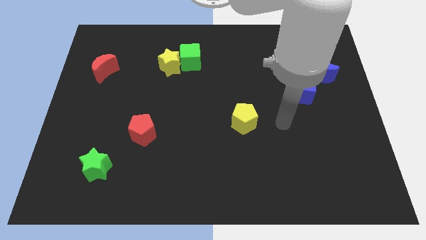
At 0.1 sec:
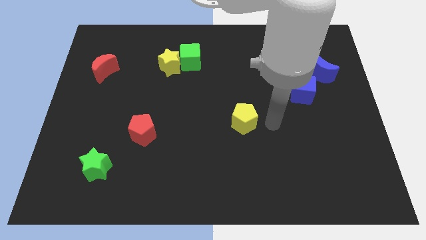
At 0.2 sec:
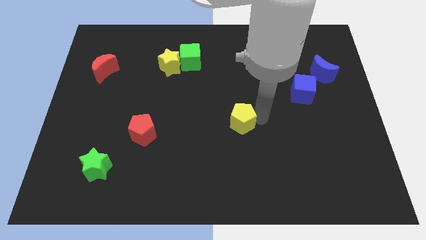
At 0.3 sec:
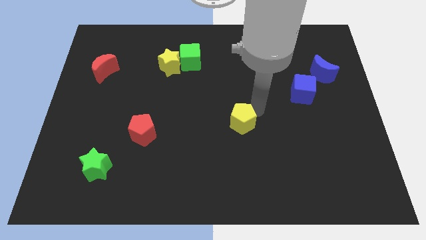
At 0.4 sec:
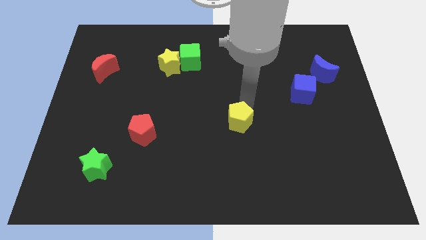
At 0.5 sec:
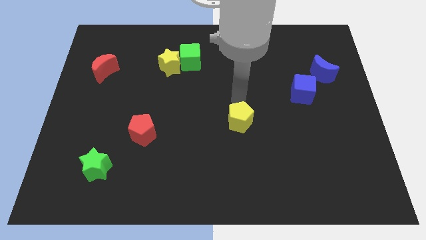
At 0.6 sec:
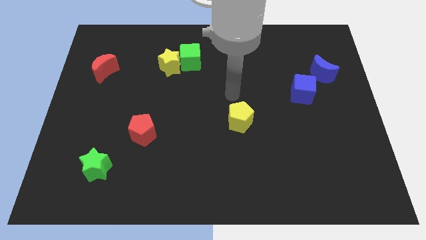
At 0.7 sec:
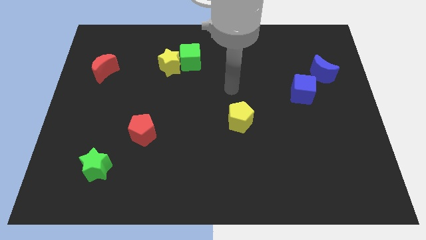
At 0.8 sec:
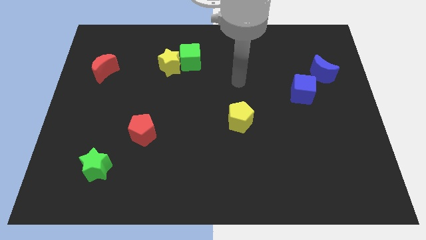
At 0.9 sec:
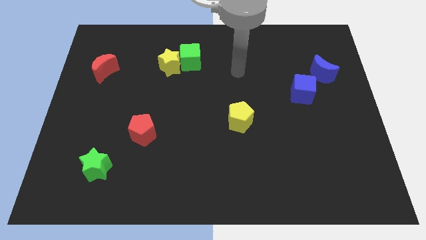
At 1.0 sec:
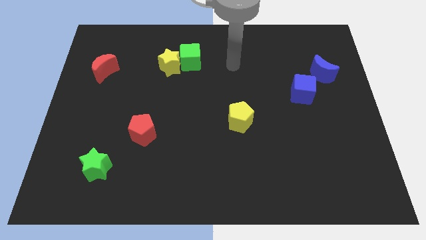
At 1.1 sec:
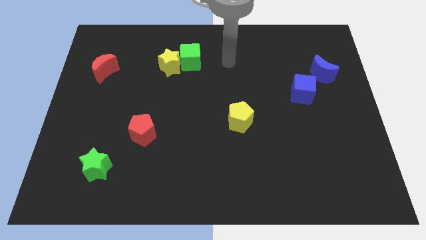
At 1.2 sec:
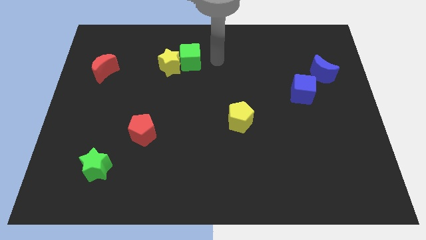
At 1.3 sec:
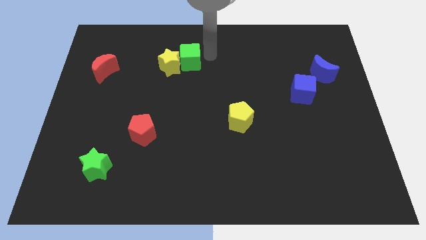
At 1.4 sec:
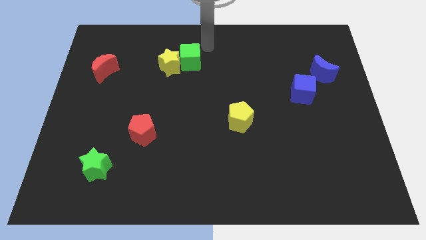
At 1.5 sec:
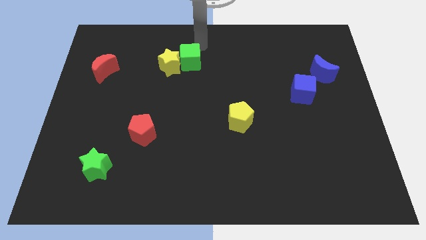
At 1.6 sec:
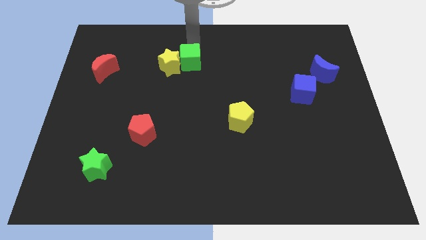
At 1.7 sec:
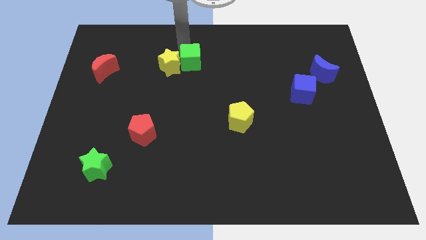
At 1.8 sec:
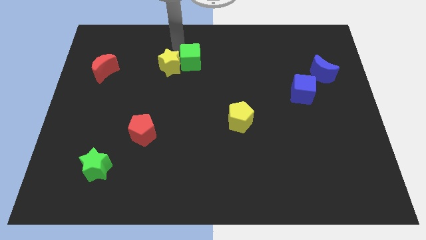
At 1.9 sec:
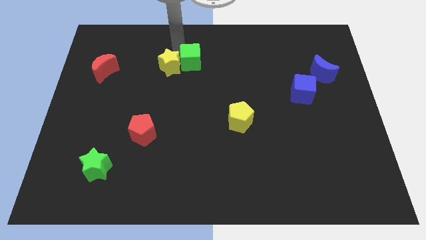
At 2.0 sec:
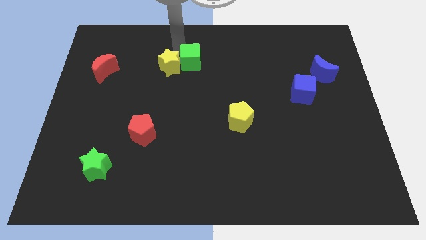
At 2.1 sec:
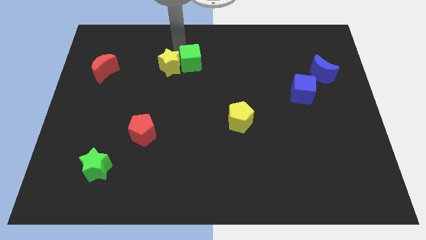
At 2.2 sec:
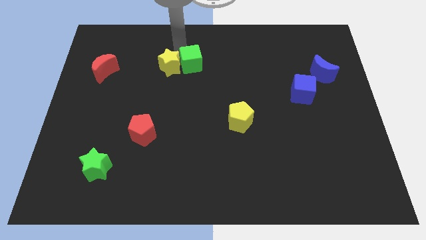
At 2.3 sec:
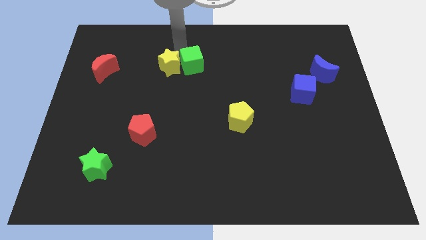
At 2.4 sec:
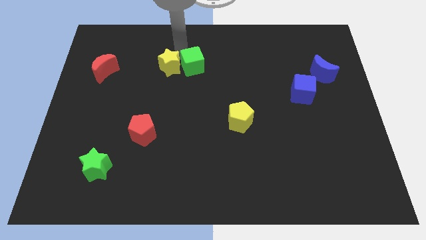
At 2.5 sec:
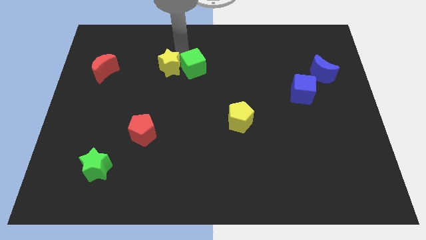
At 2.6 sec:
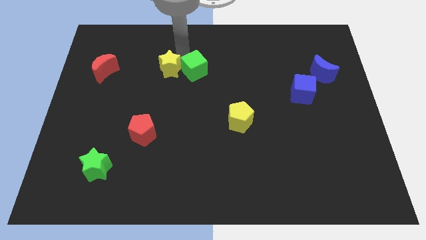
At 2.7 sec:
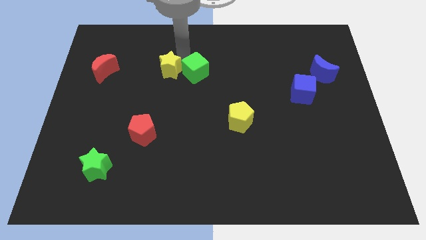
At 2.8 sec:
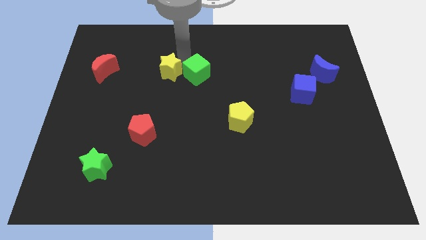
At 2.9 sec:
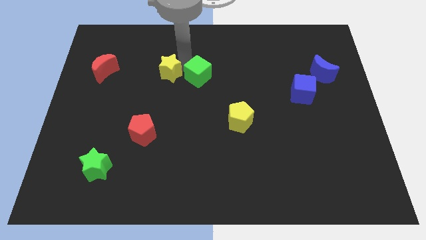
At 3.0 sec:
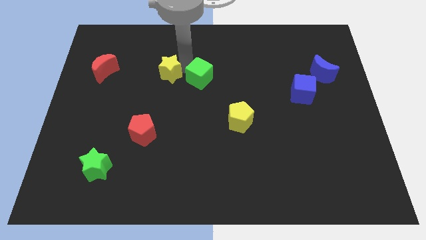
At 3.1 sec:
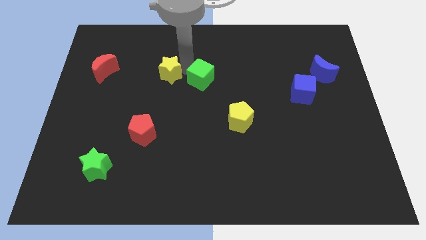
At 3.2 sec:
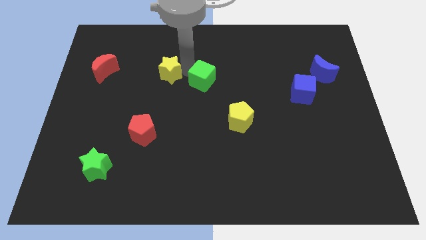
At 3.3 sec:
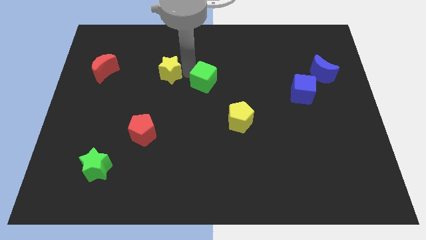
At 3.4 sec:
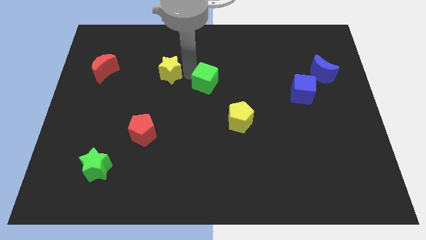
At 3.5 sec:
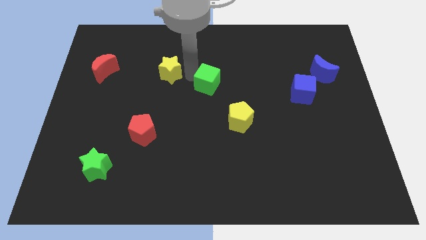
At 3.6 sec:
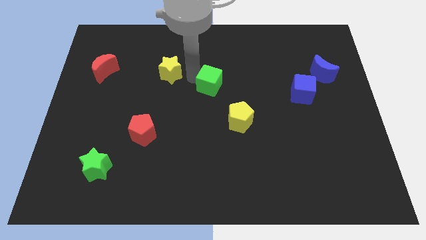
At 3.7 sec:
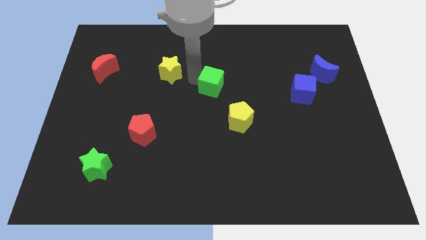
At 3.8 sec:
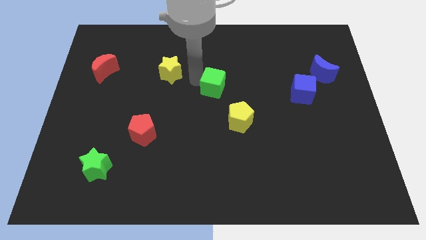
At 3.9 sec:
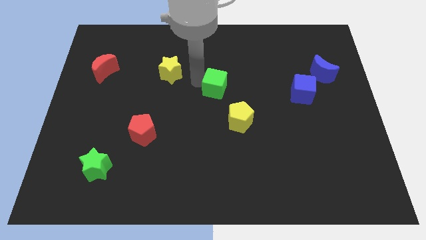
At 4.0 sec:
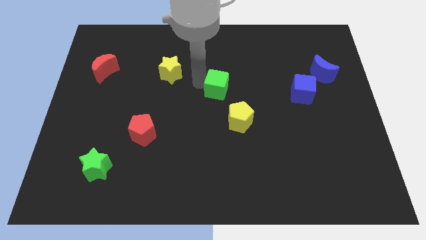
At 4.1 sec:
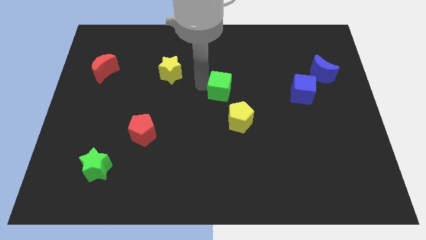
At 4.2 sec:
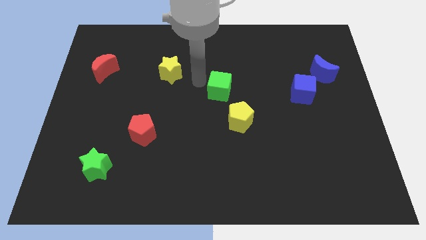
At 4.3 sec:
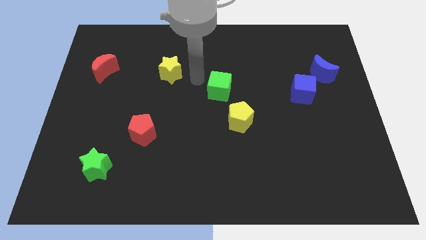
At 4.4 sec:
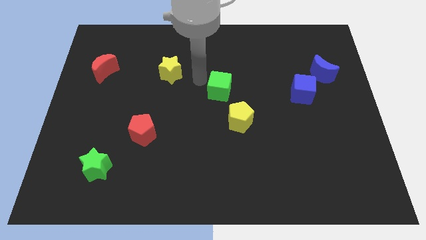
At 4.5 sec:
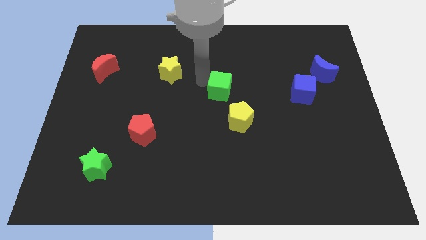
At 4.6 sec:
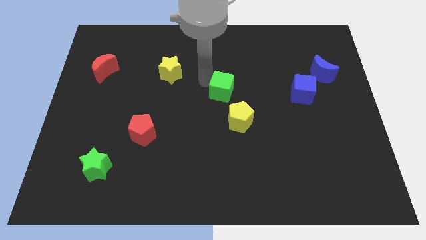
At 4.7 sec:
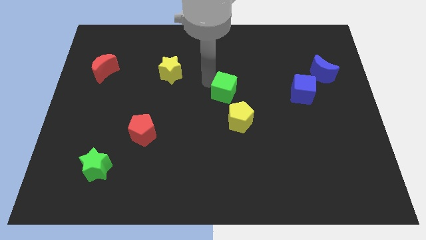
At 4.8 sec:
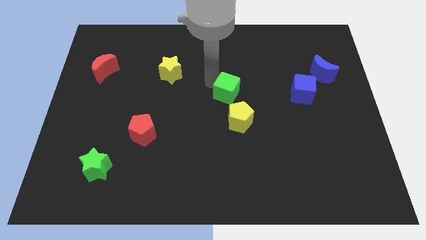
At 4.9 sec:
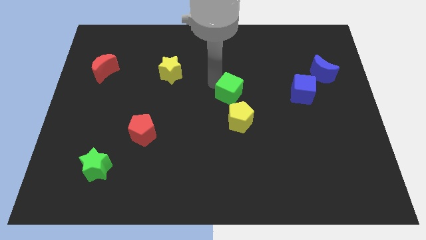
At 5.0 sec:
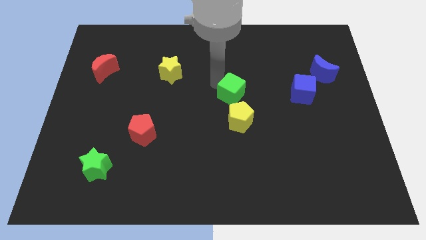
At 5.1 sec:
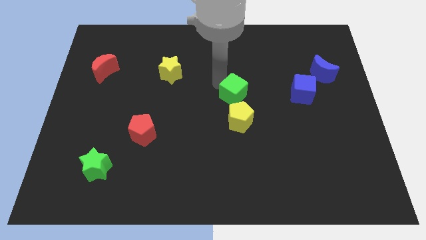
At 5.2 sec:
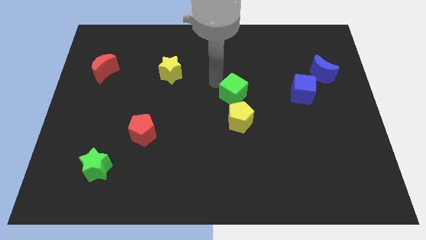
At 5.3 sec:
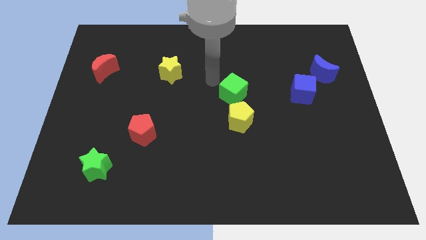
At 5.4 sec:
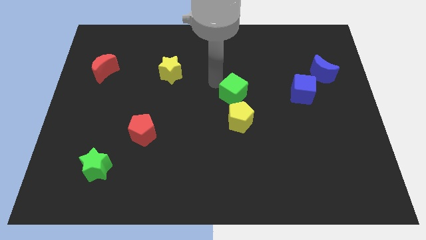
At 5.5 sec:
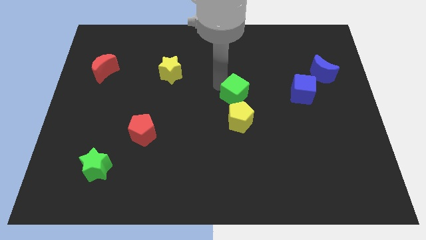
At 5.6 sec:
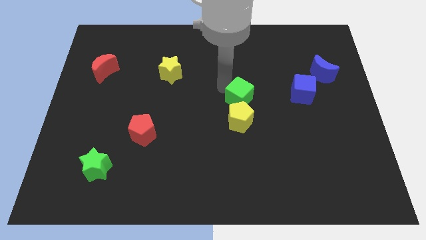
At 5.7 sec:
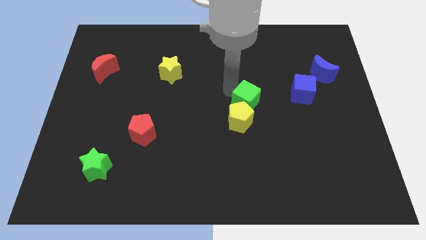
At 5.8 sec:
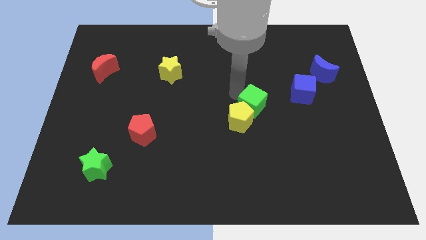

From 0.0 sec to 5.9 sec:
push the green cube downwards and then to the right

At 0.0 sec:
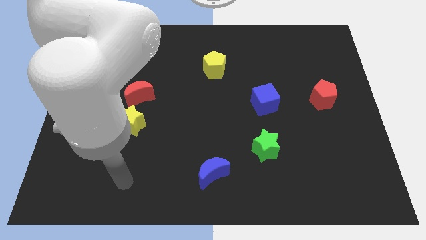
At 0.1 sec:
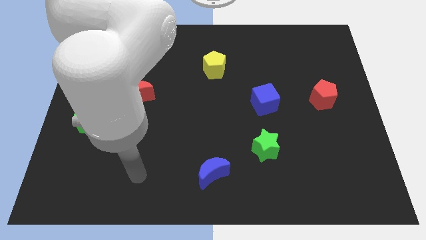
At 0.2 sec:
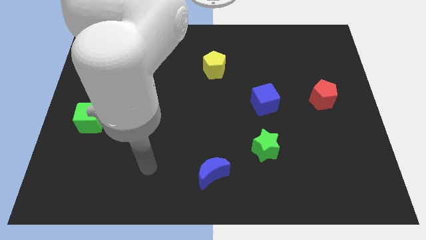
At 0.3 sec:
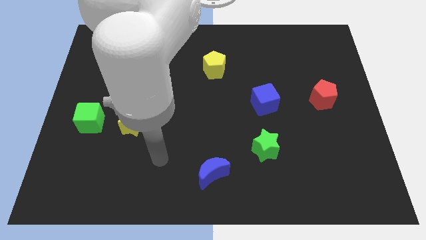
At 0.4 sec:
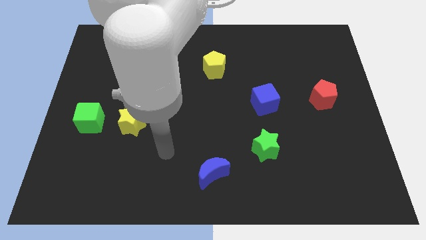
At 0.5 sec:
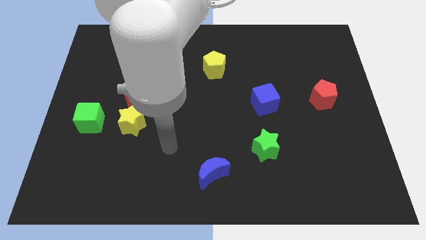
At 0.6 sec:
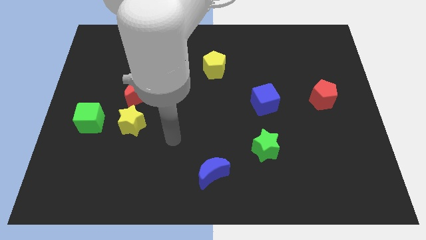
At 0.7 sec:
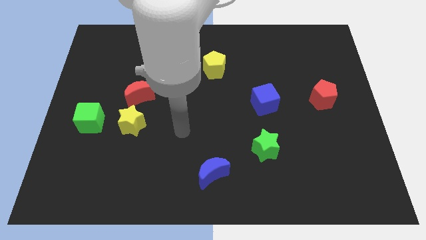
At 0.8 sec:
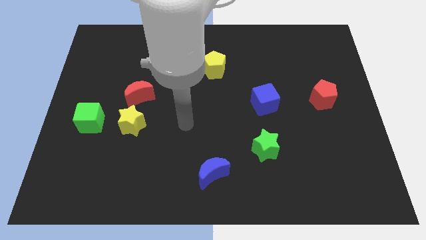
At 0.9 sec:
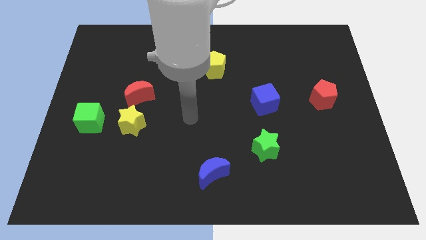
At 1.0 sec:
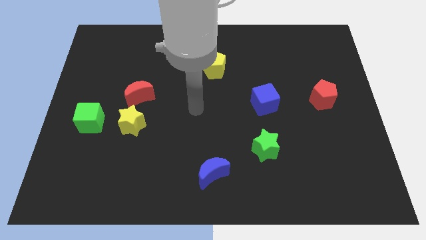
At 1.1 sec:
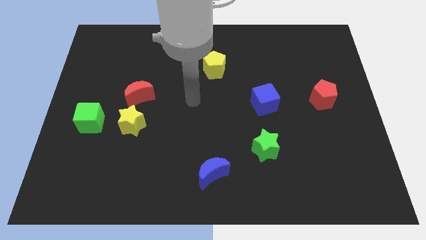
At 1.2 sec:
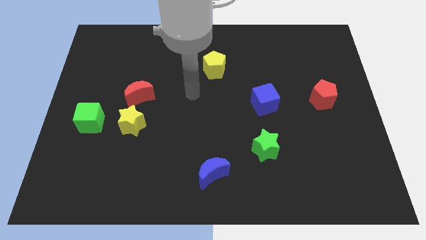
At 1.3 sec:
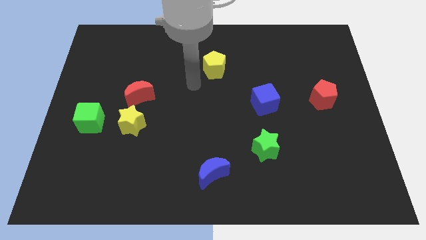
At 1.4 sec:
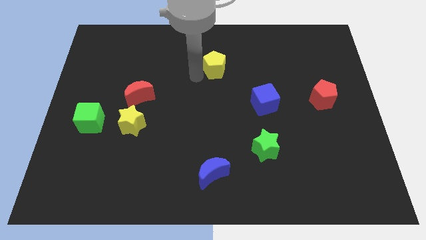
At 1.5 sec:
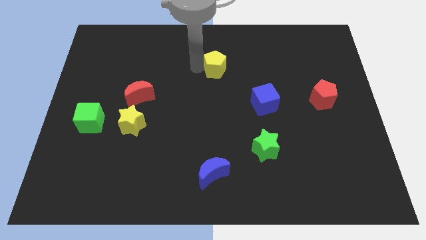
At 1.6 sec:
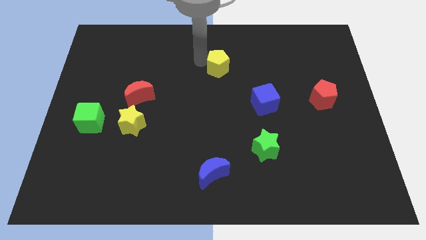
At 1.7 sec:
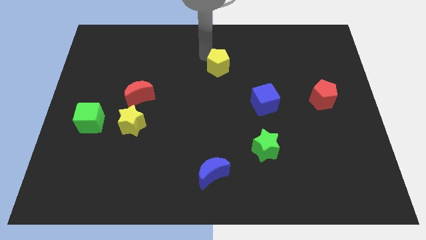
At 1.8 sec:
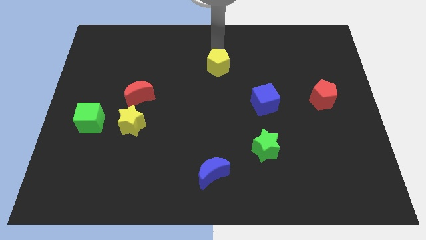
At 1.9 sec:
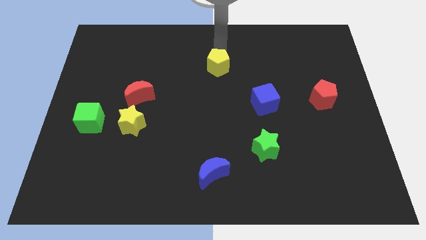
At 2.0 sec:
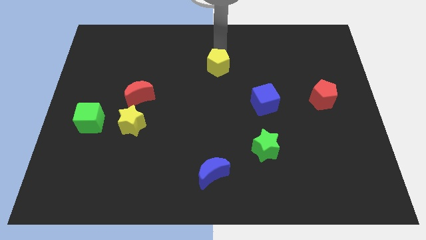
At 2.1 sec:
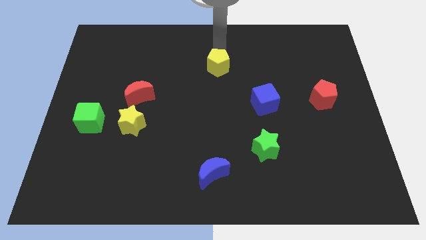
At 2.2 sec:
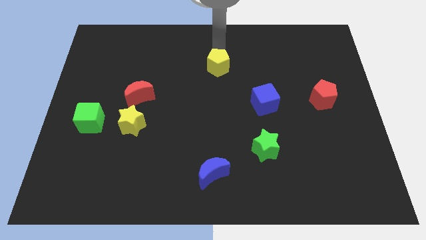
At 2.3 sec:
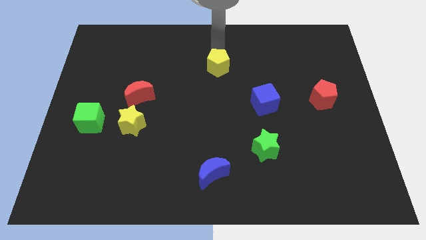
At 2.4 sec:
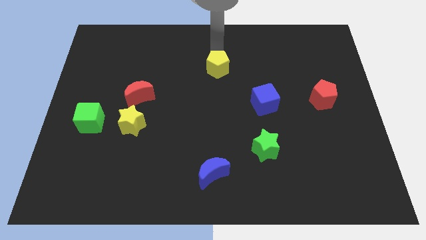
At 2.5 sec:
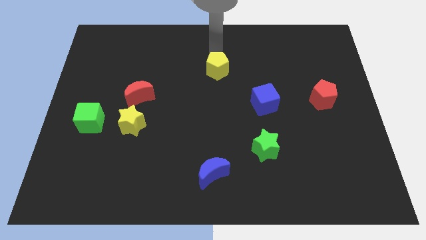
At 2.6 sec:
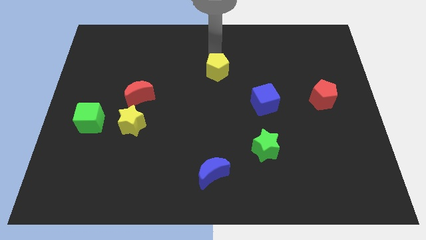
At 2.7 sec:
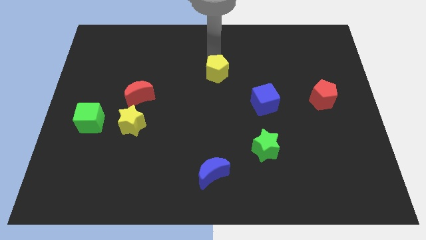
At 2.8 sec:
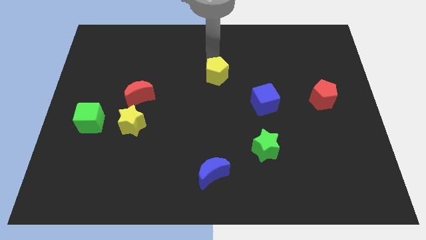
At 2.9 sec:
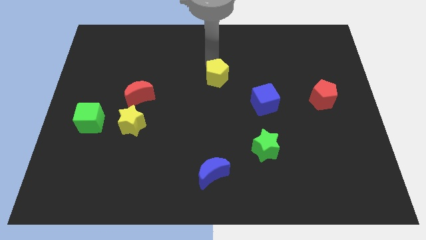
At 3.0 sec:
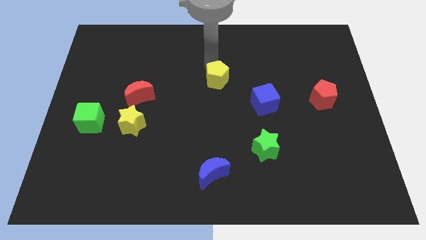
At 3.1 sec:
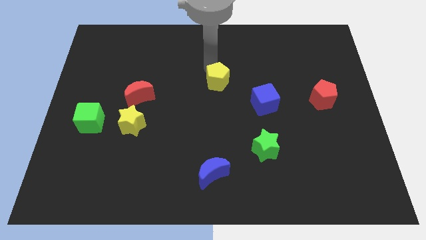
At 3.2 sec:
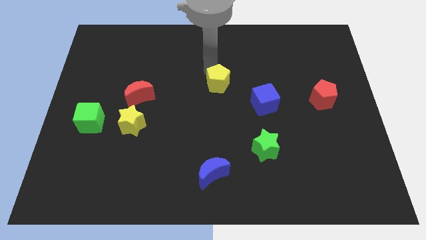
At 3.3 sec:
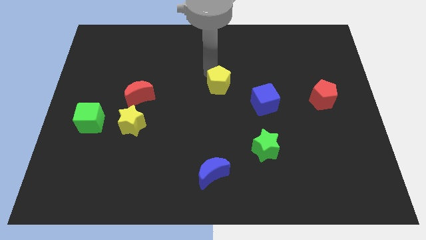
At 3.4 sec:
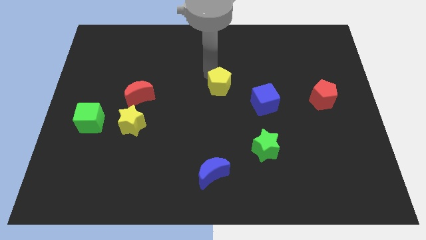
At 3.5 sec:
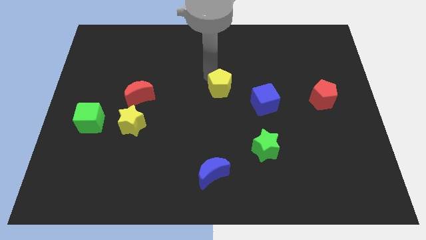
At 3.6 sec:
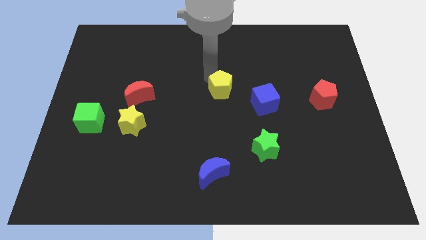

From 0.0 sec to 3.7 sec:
move the yellow pentagon downwards a little
